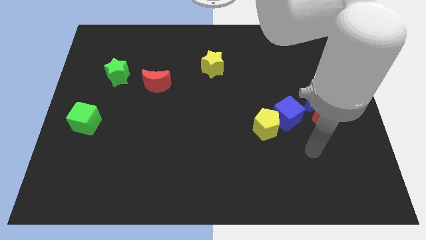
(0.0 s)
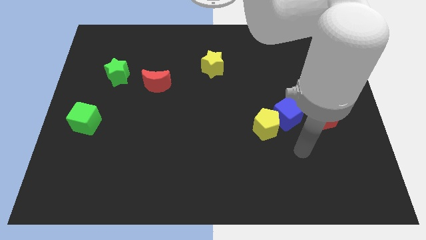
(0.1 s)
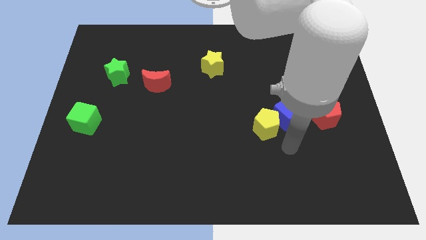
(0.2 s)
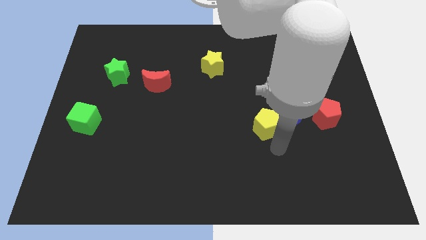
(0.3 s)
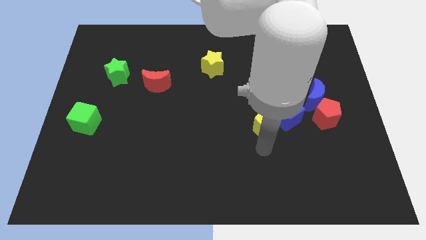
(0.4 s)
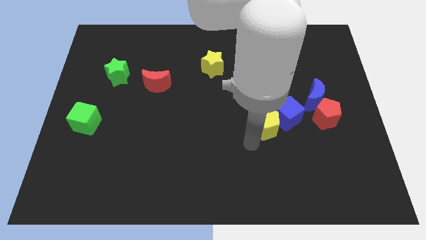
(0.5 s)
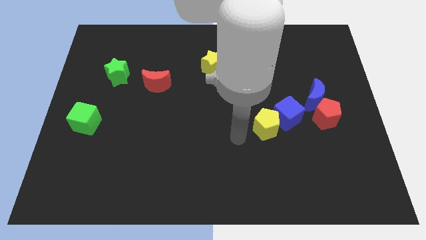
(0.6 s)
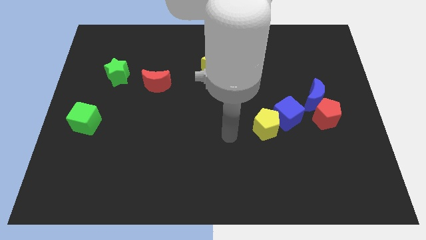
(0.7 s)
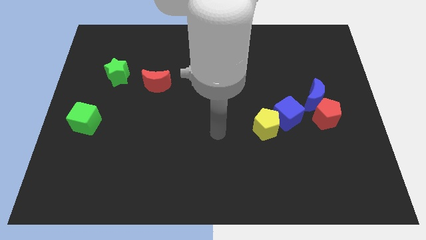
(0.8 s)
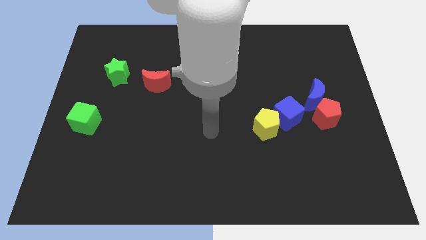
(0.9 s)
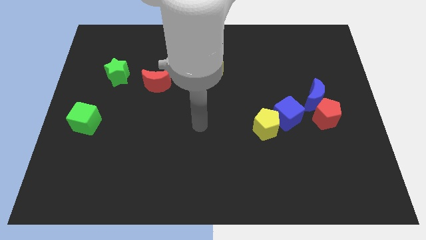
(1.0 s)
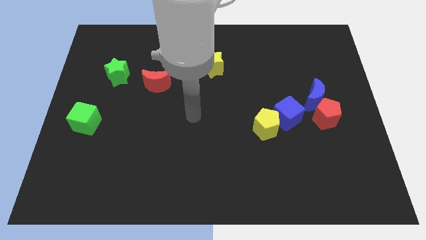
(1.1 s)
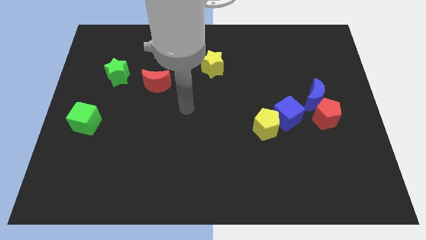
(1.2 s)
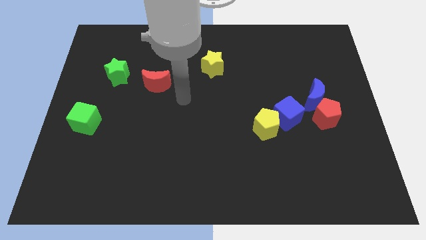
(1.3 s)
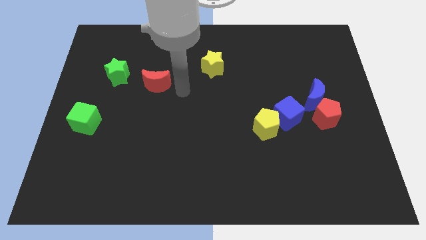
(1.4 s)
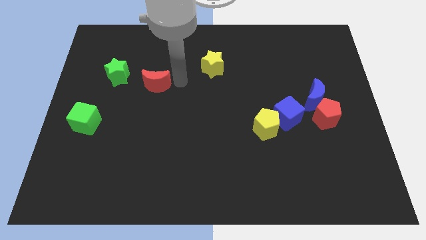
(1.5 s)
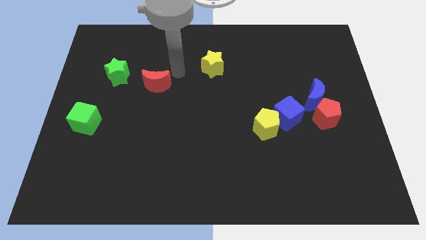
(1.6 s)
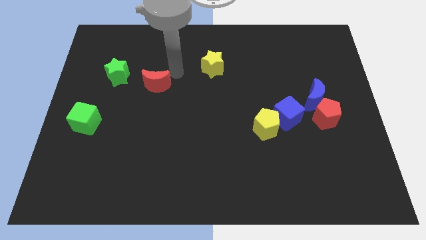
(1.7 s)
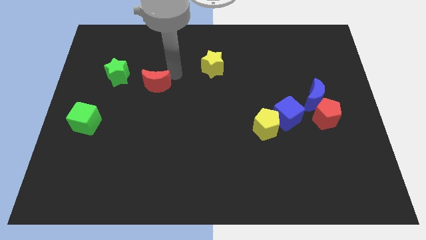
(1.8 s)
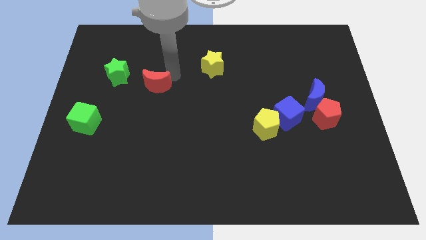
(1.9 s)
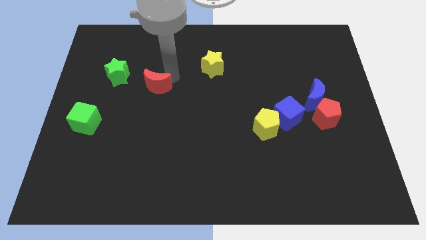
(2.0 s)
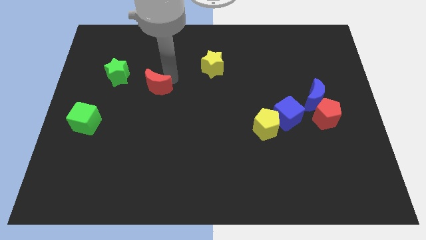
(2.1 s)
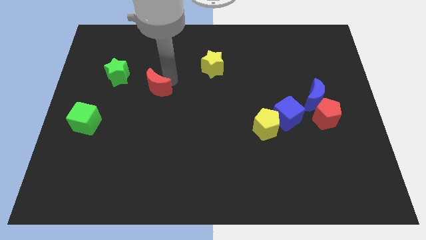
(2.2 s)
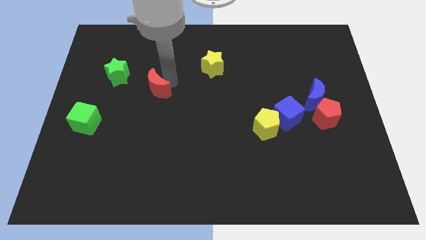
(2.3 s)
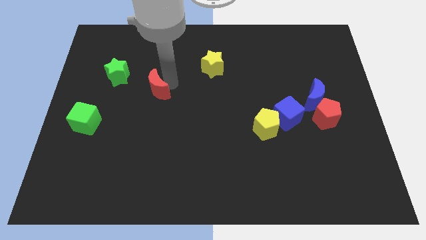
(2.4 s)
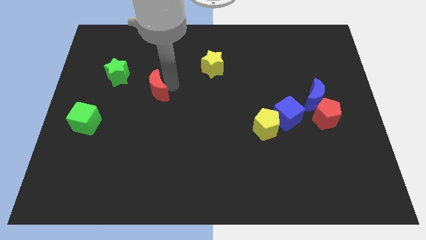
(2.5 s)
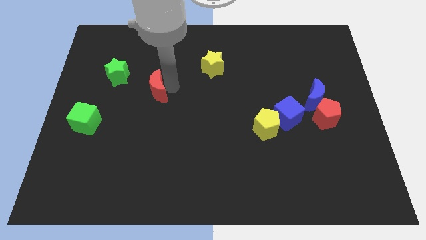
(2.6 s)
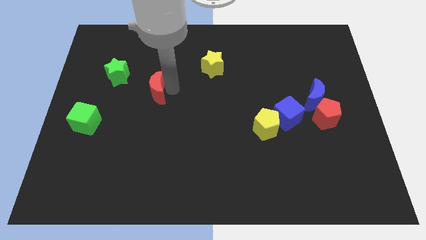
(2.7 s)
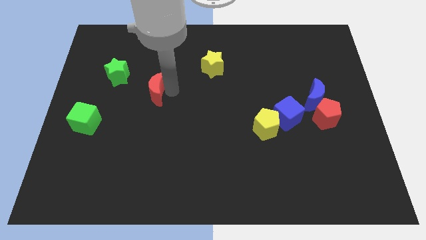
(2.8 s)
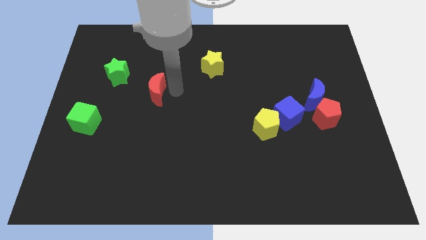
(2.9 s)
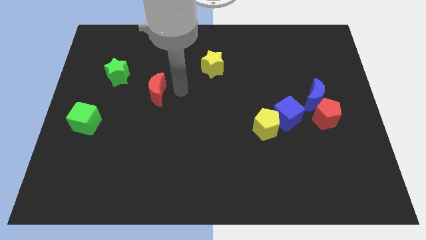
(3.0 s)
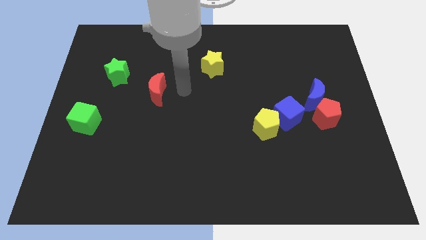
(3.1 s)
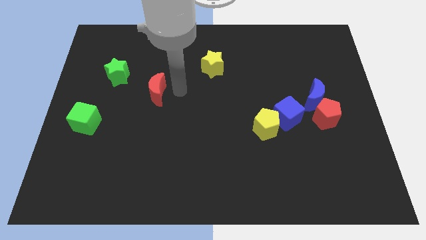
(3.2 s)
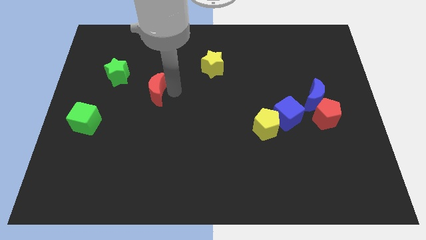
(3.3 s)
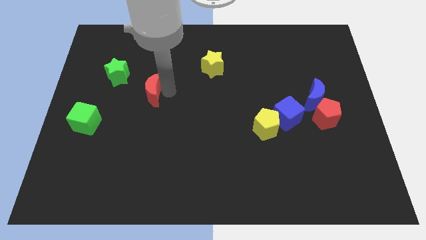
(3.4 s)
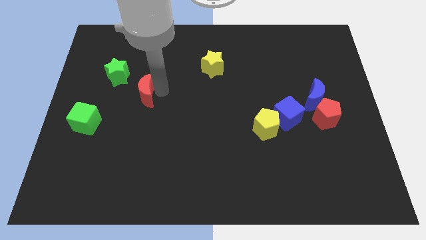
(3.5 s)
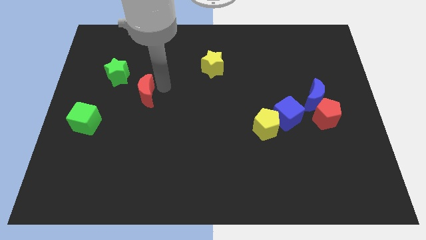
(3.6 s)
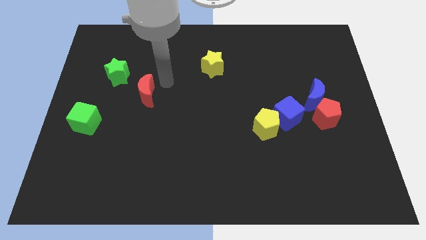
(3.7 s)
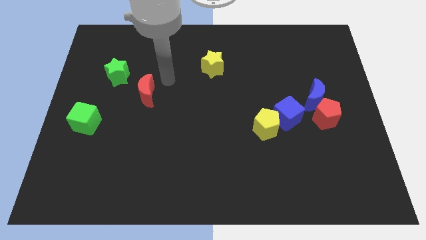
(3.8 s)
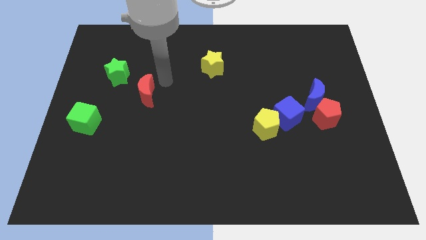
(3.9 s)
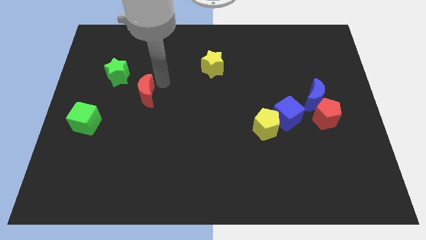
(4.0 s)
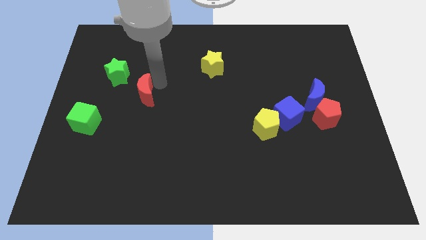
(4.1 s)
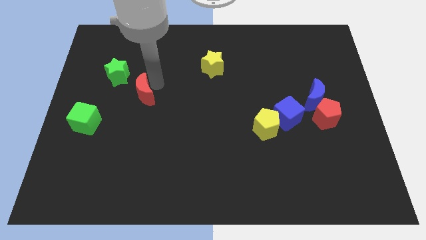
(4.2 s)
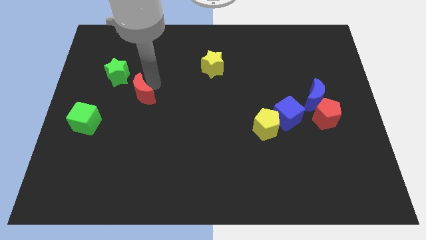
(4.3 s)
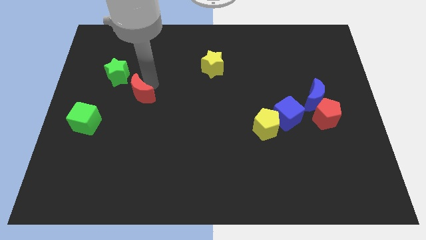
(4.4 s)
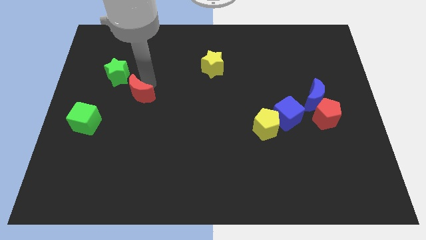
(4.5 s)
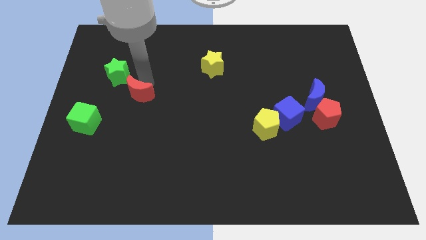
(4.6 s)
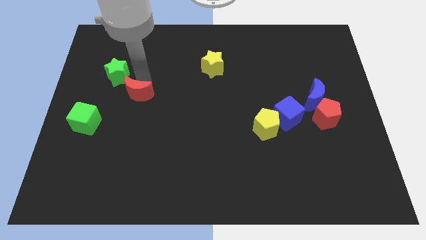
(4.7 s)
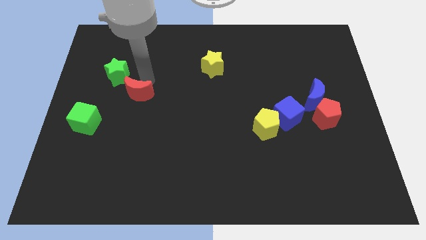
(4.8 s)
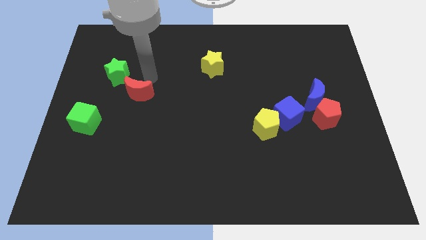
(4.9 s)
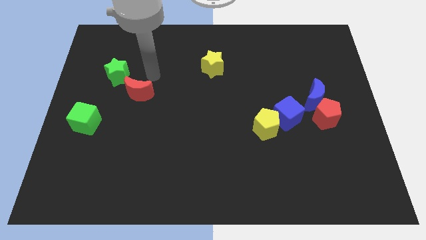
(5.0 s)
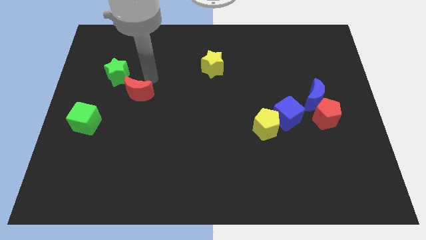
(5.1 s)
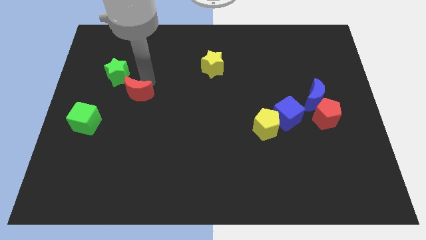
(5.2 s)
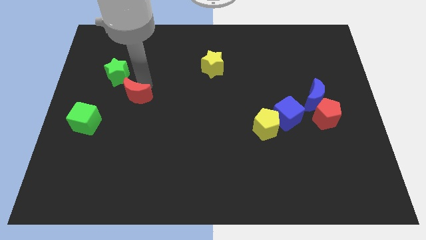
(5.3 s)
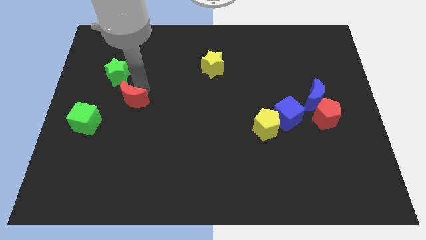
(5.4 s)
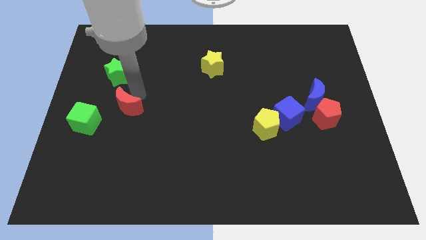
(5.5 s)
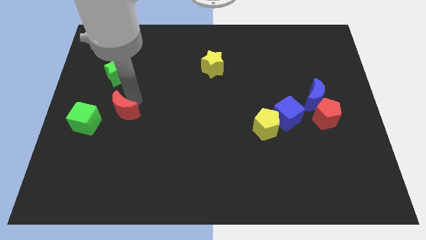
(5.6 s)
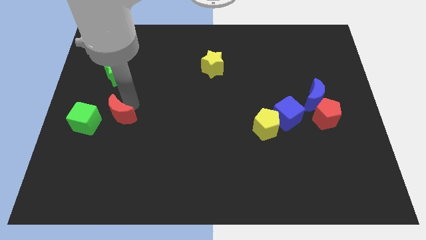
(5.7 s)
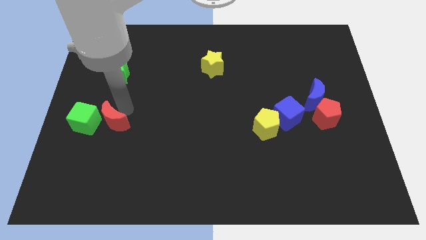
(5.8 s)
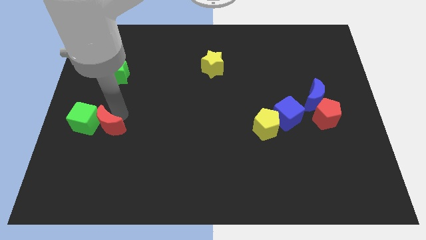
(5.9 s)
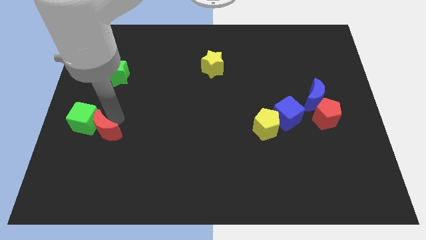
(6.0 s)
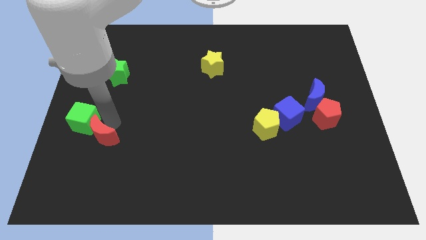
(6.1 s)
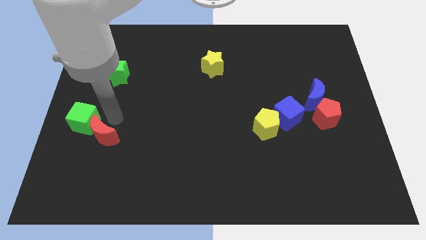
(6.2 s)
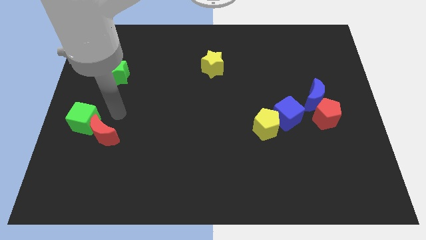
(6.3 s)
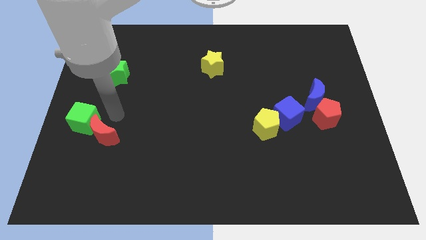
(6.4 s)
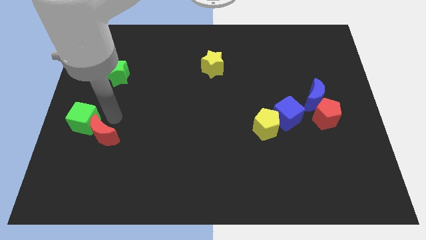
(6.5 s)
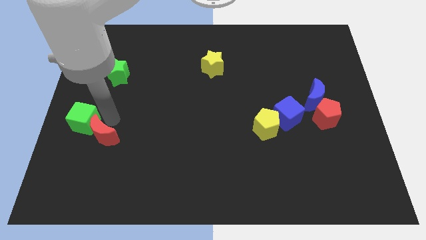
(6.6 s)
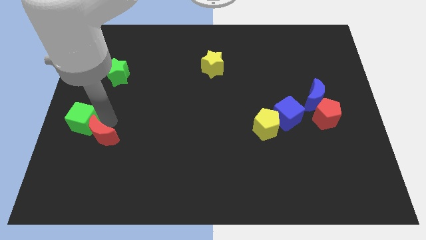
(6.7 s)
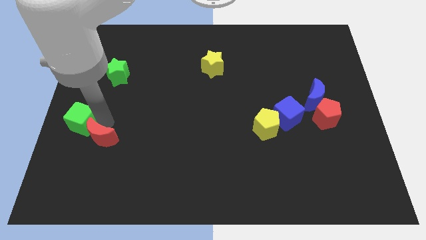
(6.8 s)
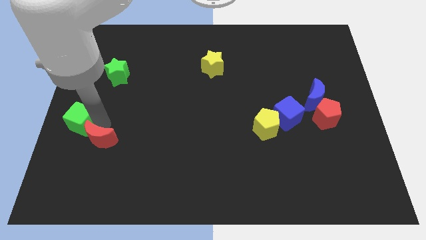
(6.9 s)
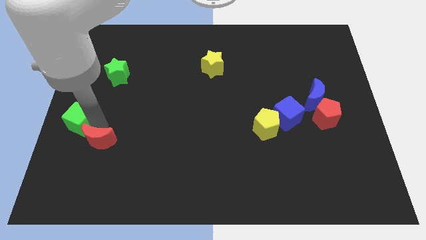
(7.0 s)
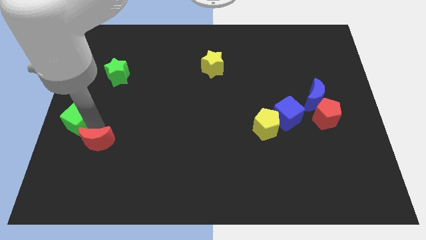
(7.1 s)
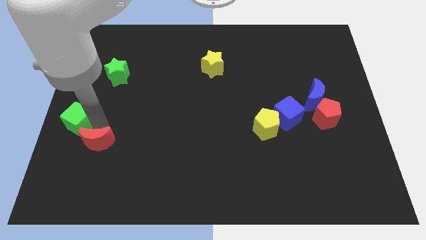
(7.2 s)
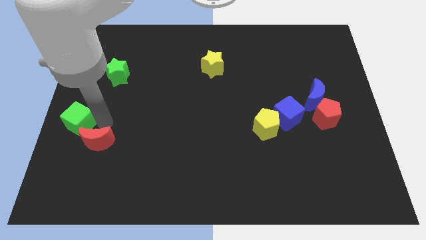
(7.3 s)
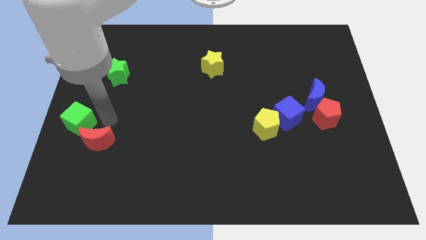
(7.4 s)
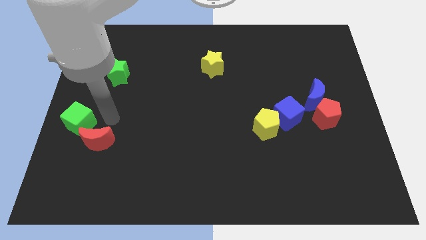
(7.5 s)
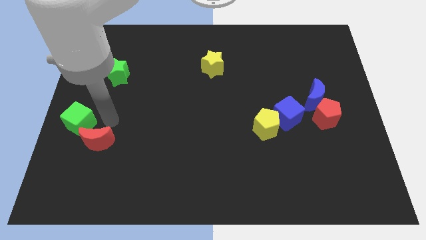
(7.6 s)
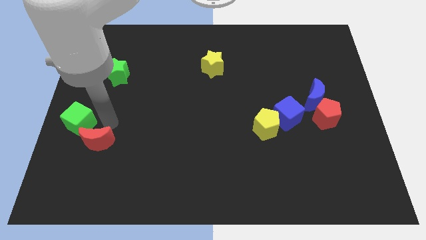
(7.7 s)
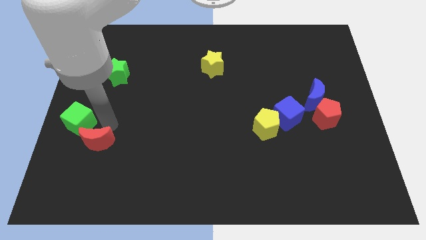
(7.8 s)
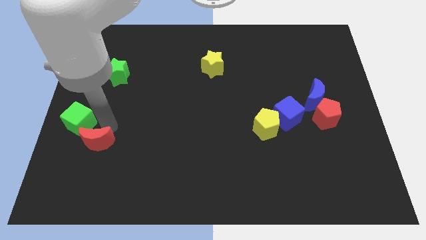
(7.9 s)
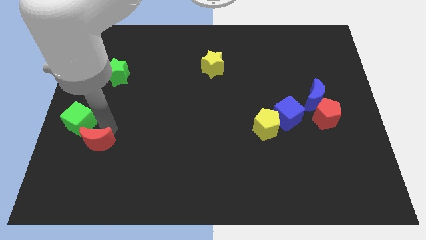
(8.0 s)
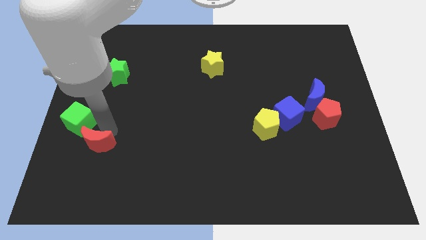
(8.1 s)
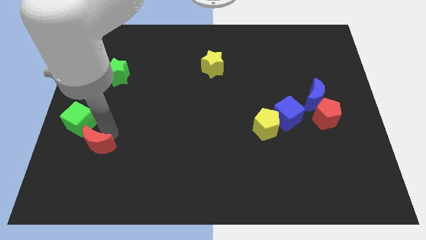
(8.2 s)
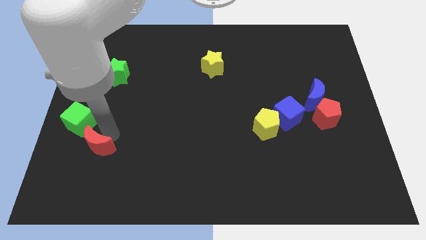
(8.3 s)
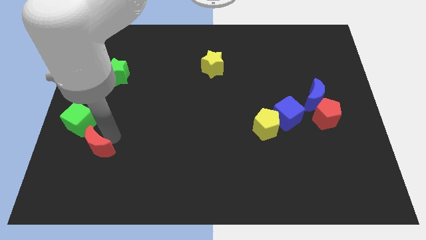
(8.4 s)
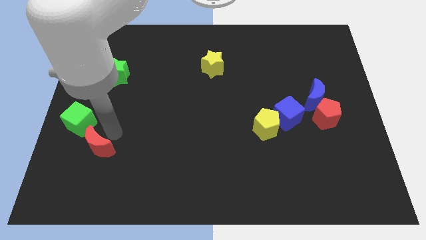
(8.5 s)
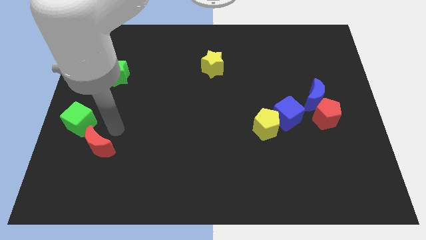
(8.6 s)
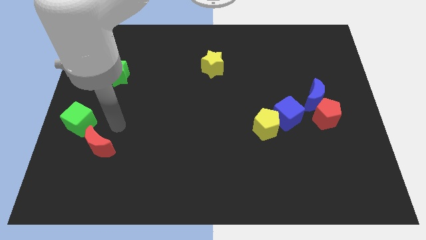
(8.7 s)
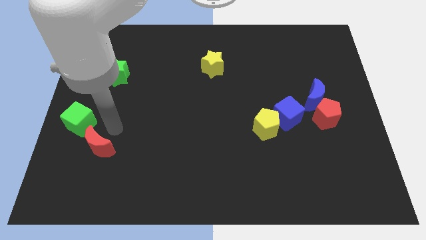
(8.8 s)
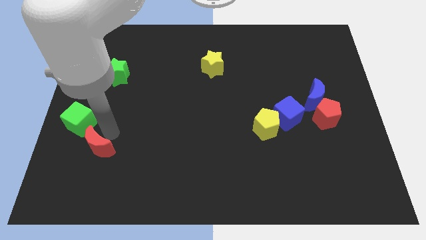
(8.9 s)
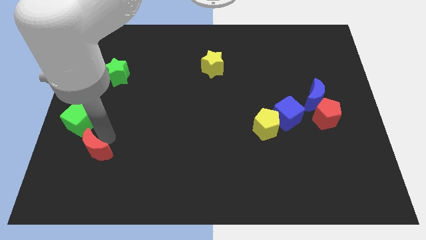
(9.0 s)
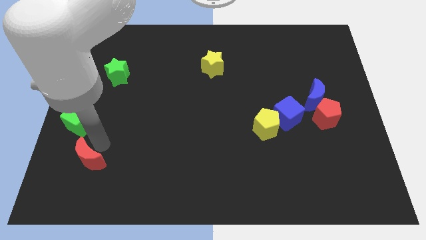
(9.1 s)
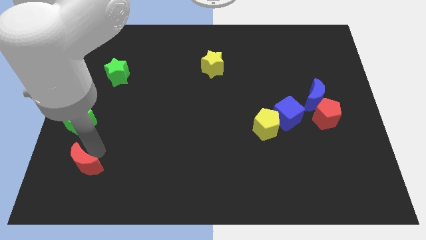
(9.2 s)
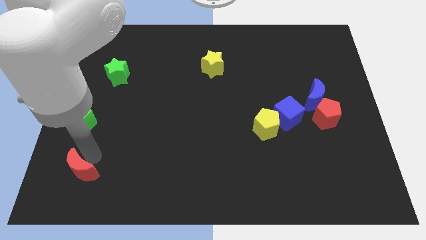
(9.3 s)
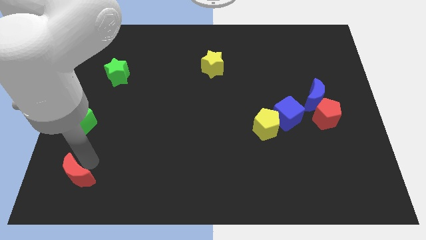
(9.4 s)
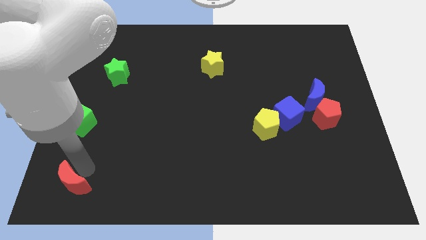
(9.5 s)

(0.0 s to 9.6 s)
move the red moon to the bottom left corner
